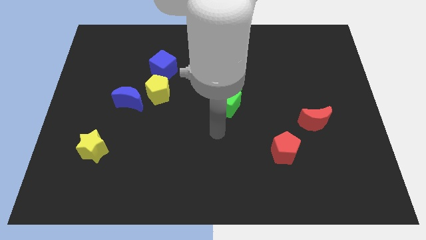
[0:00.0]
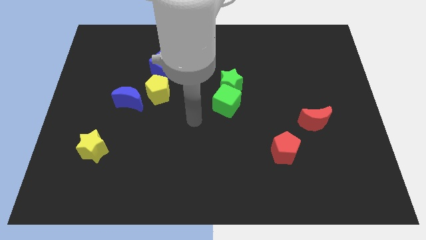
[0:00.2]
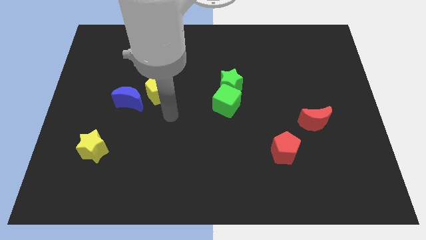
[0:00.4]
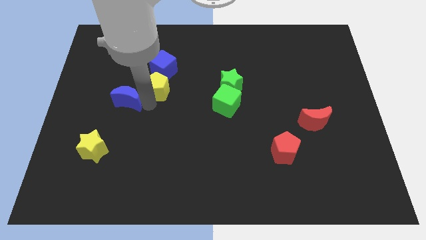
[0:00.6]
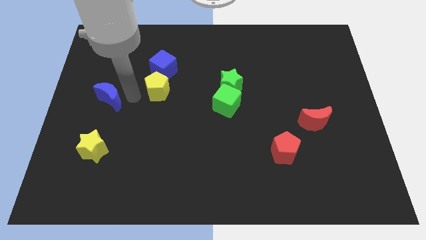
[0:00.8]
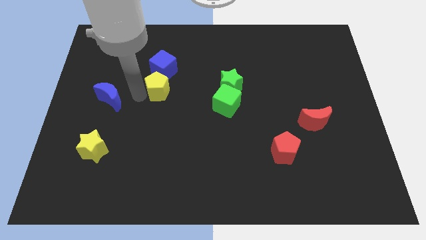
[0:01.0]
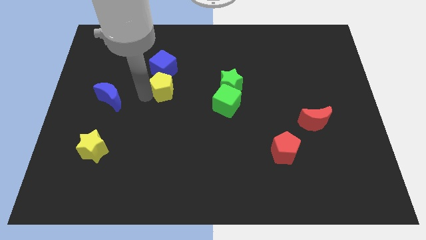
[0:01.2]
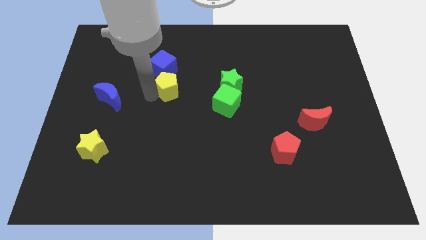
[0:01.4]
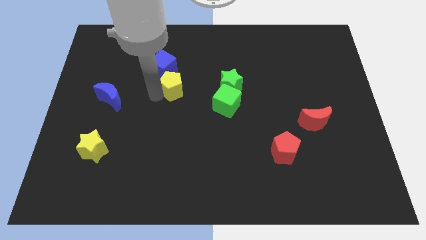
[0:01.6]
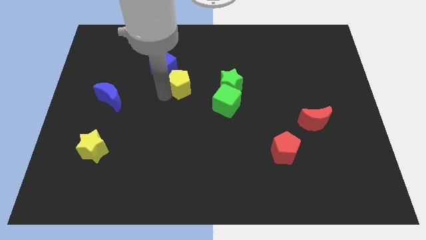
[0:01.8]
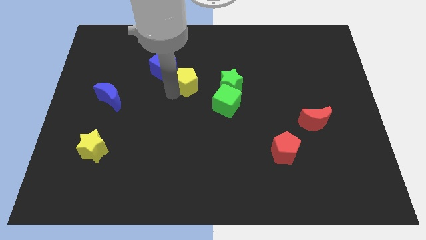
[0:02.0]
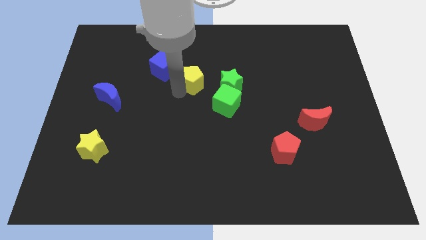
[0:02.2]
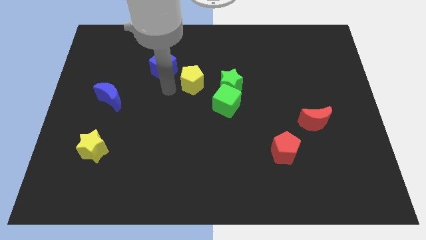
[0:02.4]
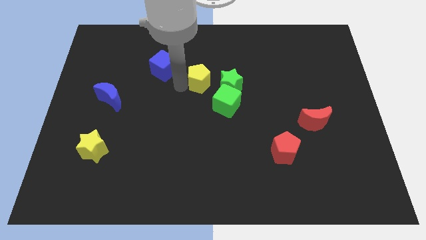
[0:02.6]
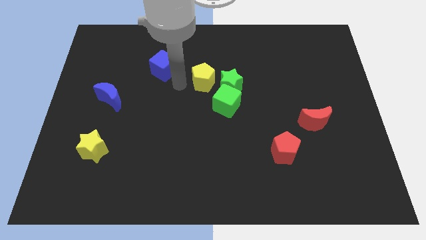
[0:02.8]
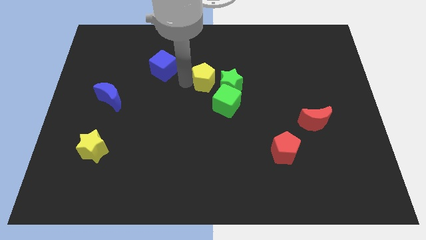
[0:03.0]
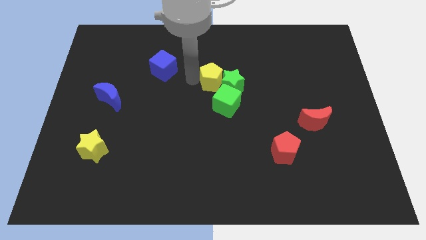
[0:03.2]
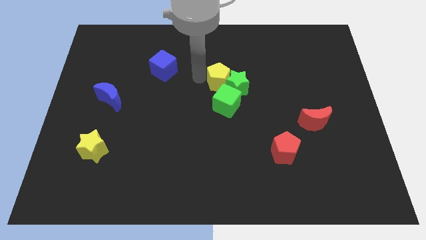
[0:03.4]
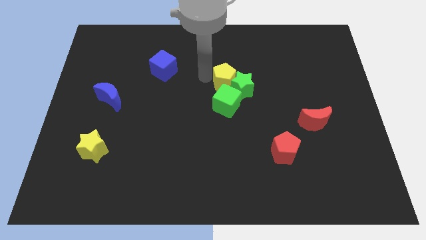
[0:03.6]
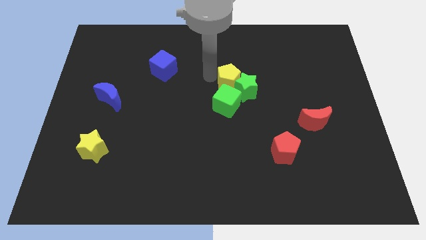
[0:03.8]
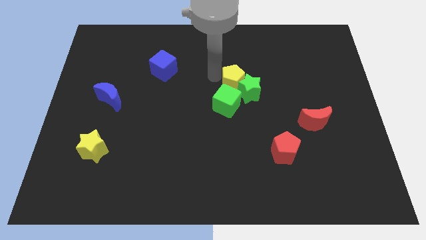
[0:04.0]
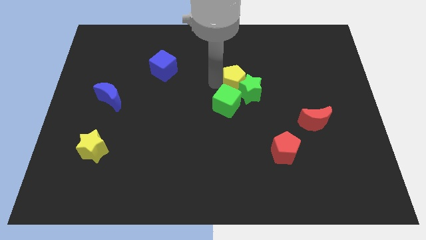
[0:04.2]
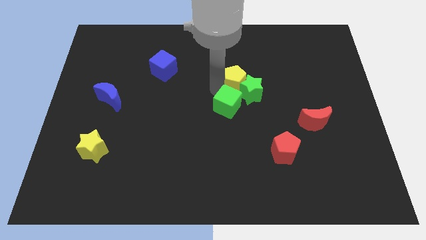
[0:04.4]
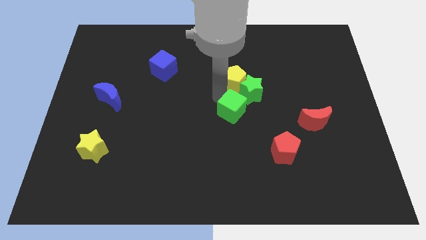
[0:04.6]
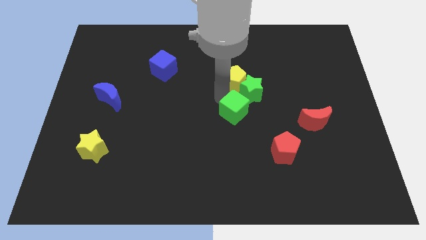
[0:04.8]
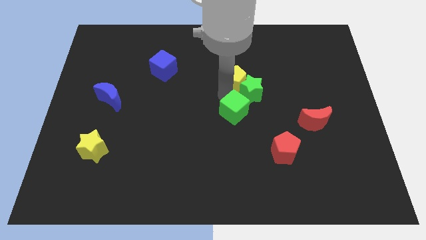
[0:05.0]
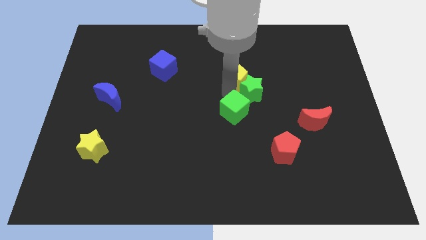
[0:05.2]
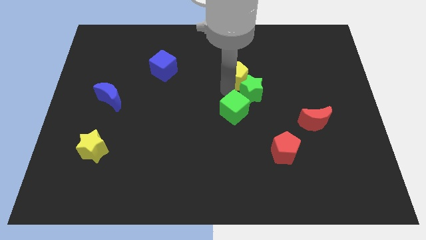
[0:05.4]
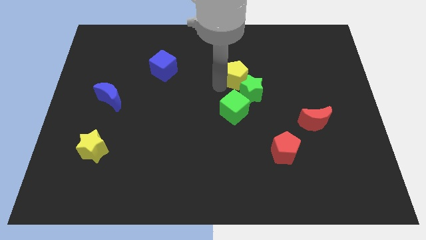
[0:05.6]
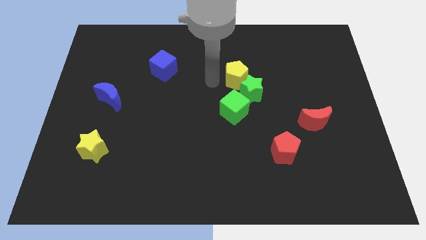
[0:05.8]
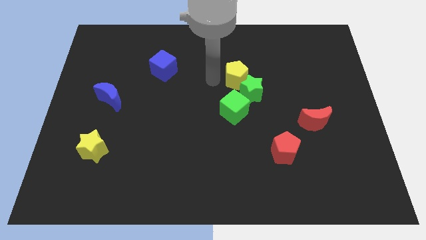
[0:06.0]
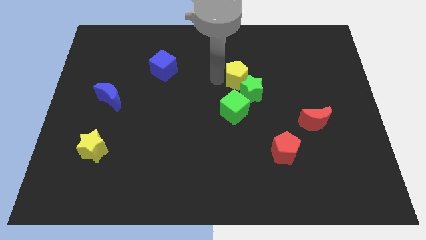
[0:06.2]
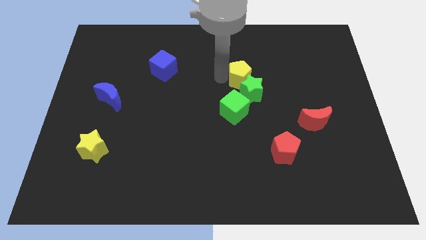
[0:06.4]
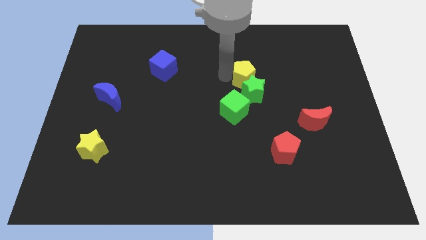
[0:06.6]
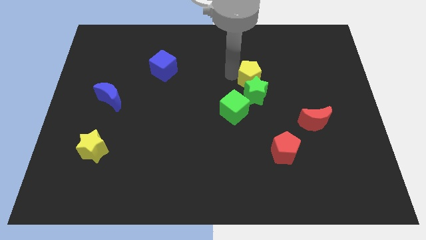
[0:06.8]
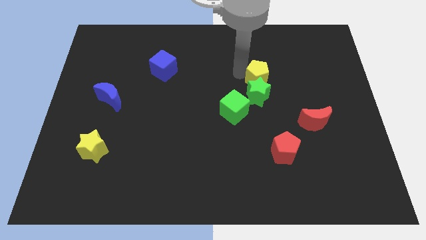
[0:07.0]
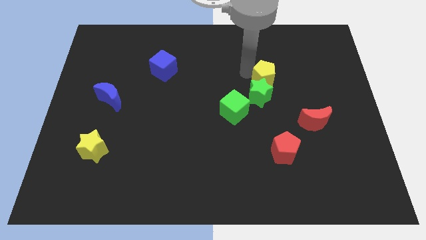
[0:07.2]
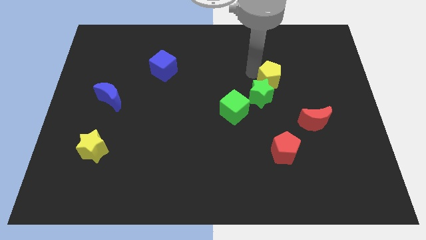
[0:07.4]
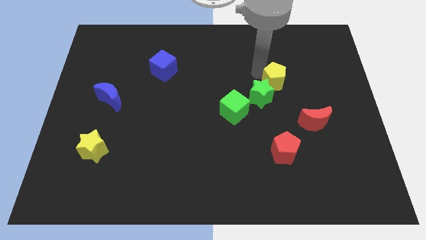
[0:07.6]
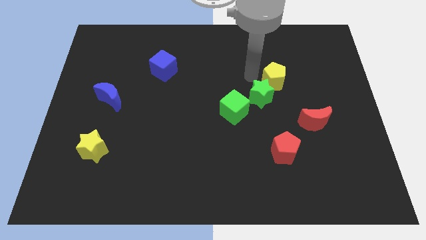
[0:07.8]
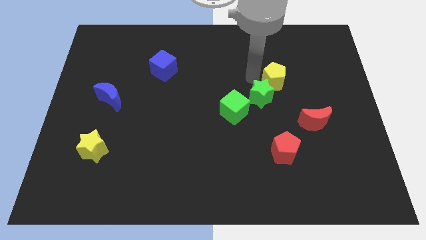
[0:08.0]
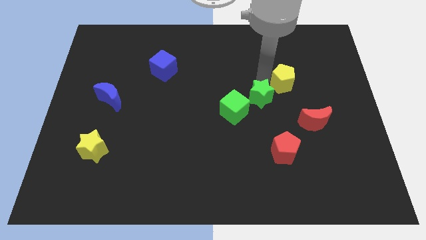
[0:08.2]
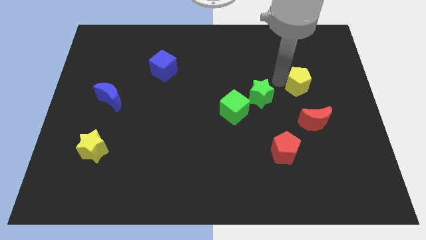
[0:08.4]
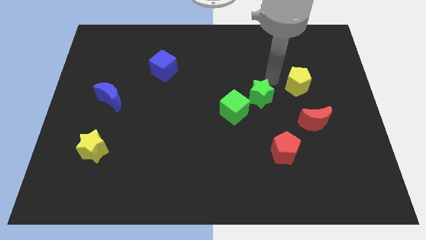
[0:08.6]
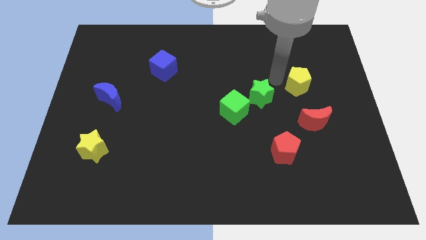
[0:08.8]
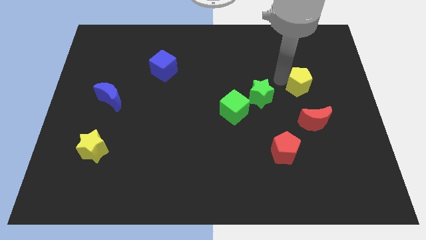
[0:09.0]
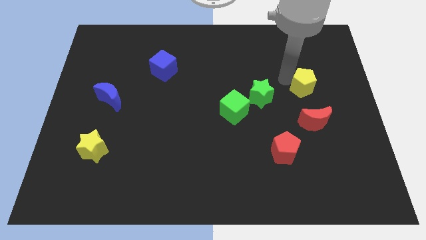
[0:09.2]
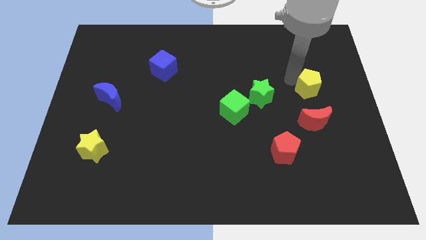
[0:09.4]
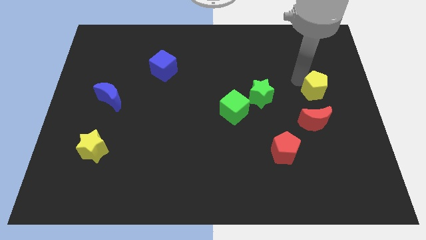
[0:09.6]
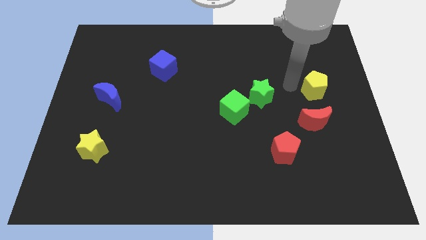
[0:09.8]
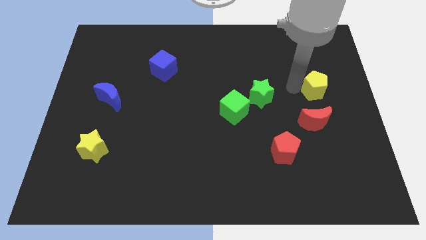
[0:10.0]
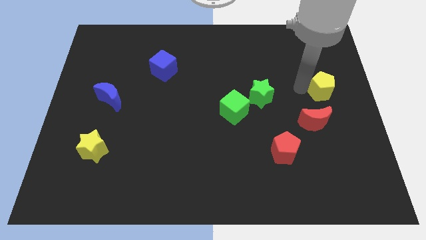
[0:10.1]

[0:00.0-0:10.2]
move the yellow pentagon to the center right
